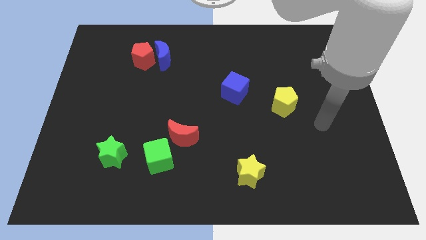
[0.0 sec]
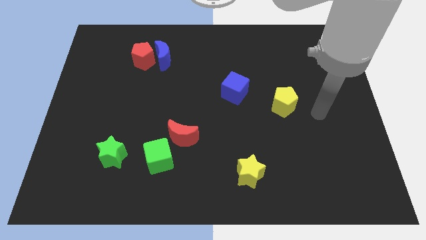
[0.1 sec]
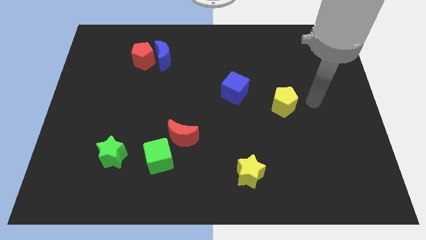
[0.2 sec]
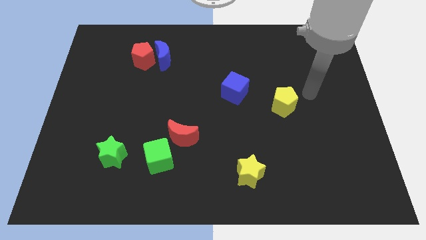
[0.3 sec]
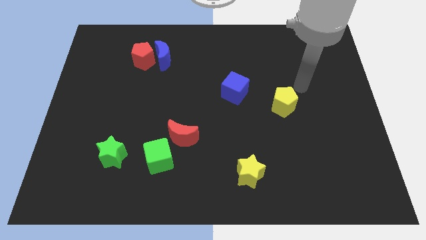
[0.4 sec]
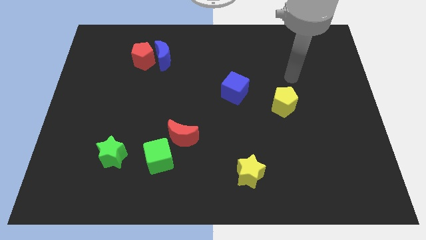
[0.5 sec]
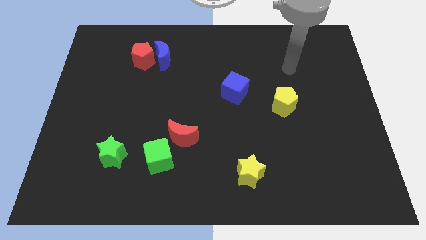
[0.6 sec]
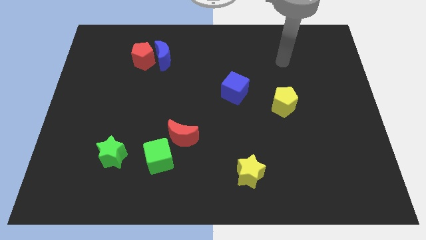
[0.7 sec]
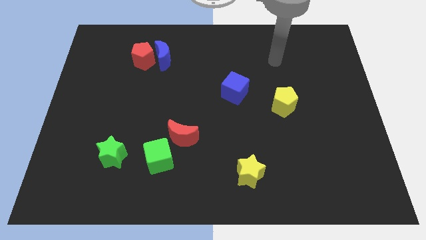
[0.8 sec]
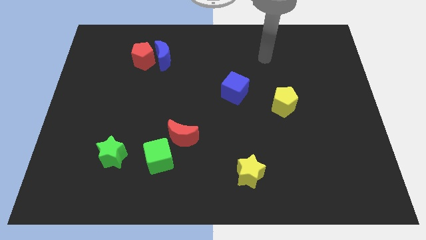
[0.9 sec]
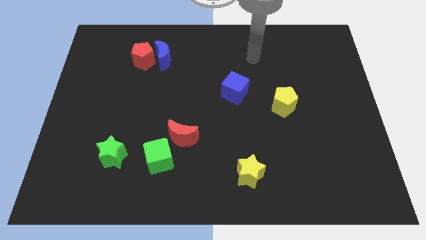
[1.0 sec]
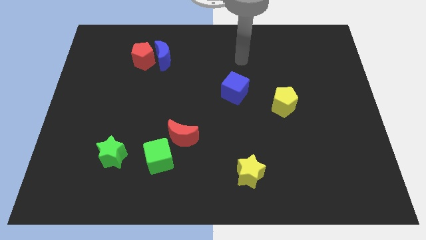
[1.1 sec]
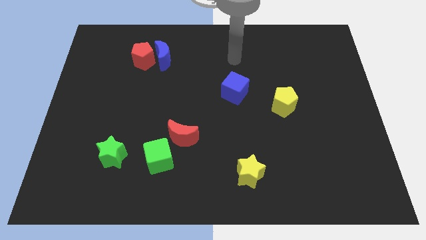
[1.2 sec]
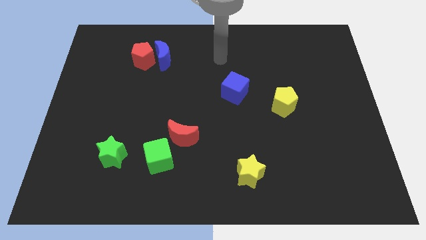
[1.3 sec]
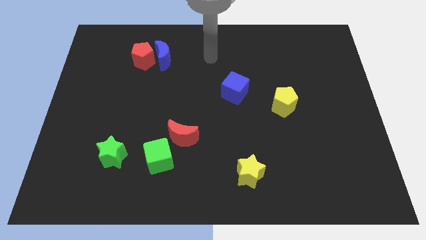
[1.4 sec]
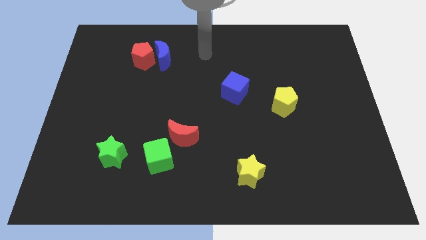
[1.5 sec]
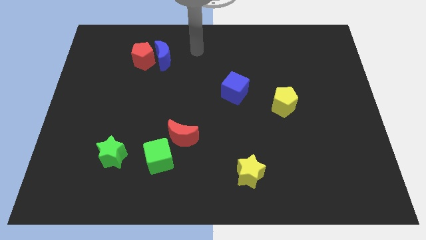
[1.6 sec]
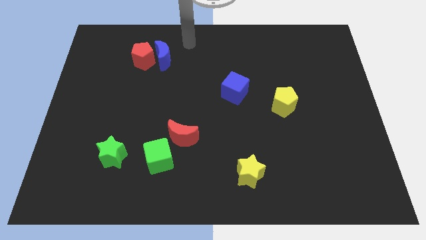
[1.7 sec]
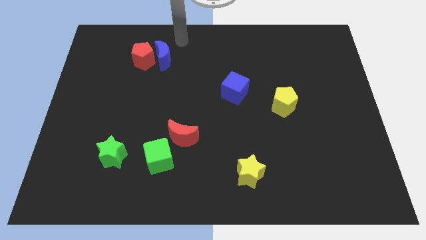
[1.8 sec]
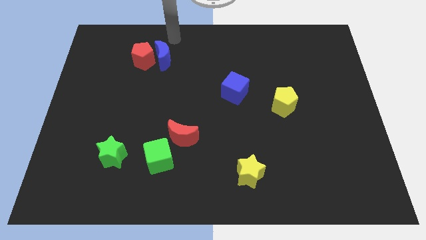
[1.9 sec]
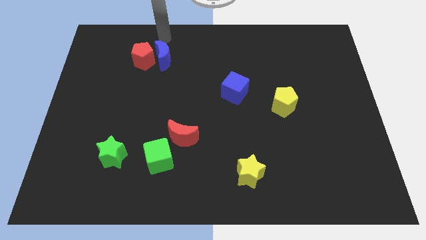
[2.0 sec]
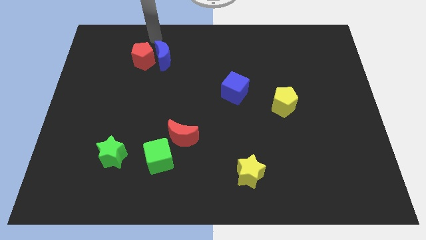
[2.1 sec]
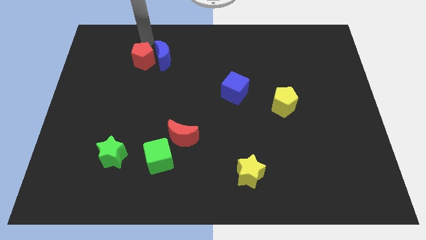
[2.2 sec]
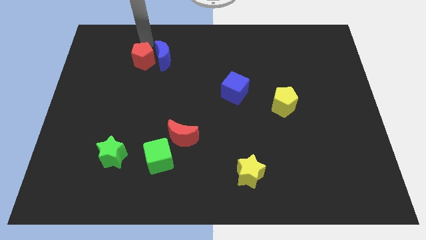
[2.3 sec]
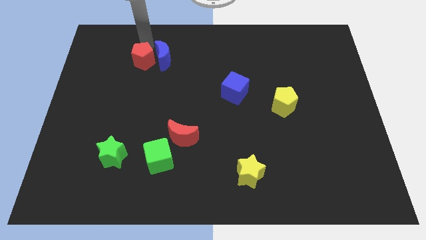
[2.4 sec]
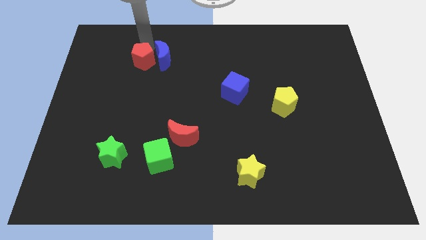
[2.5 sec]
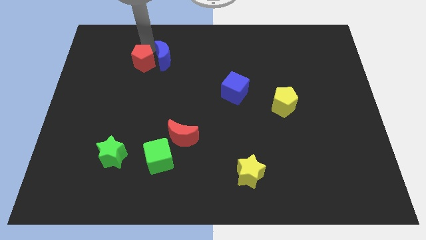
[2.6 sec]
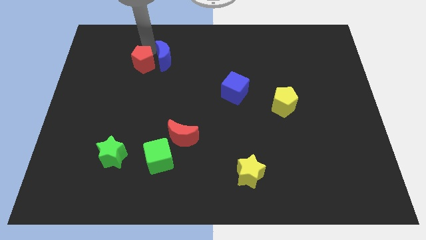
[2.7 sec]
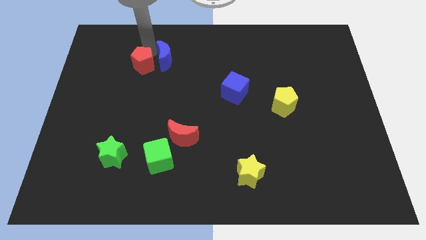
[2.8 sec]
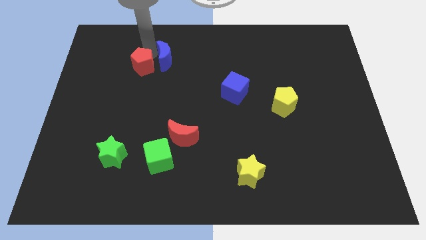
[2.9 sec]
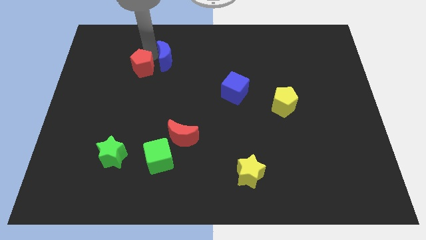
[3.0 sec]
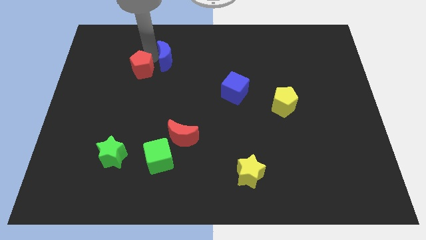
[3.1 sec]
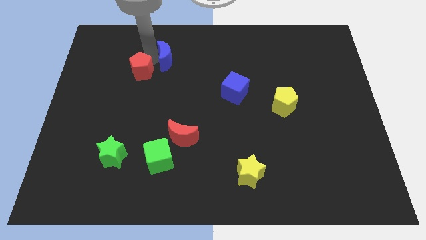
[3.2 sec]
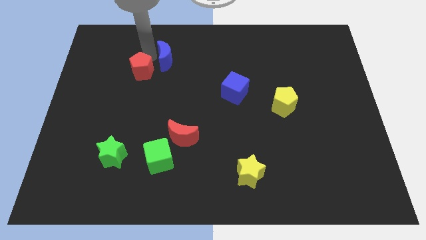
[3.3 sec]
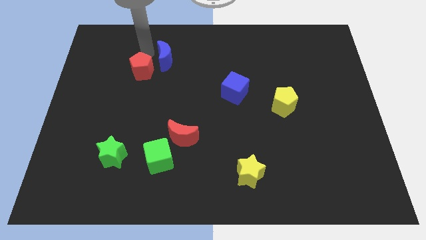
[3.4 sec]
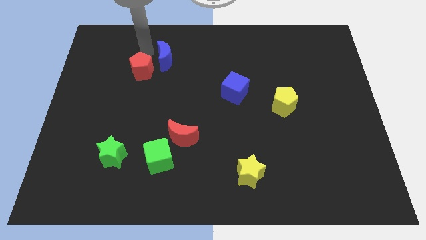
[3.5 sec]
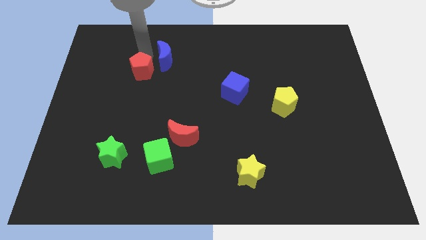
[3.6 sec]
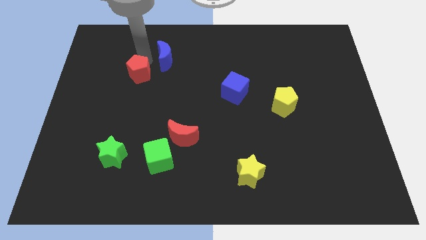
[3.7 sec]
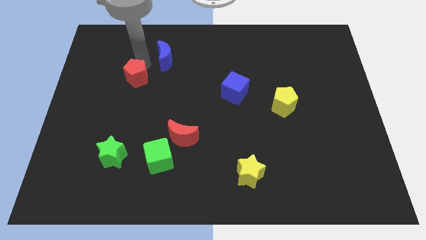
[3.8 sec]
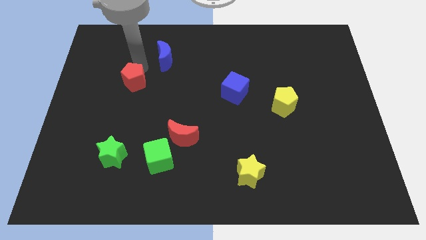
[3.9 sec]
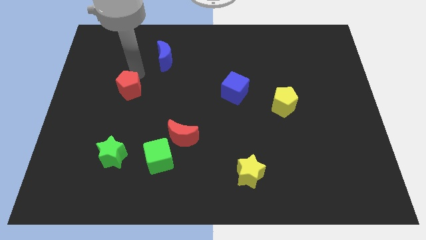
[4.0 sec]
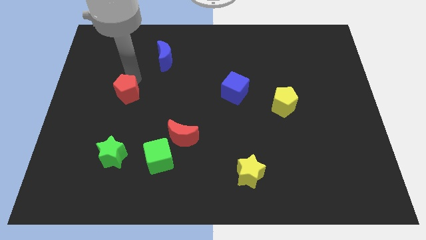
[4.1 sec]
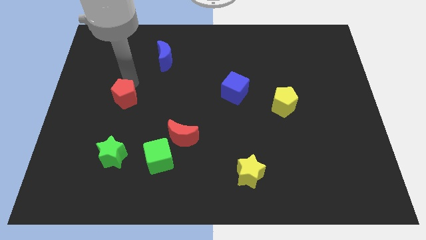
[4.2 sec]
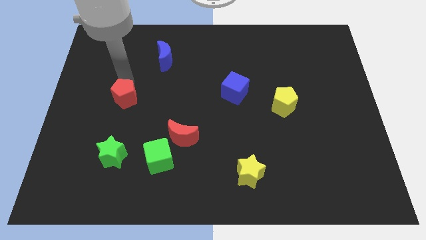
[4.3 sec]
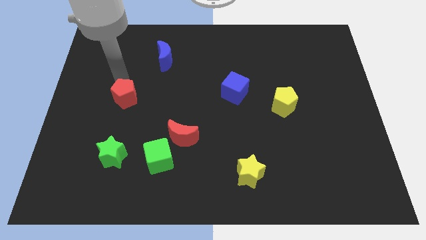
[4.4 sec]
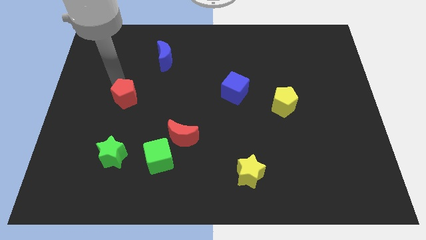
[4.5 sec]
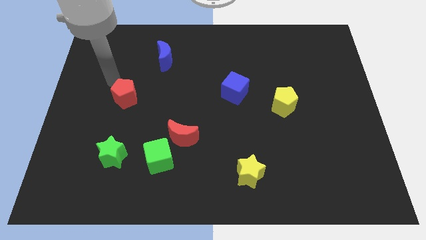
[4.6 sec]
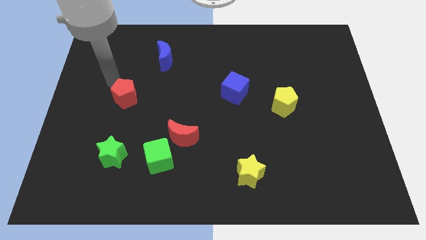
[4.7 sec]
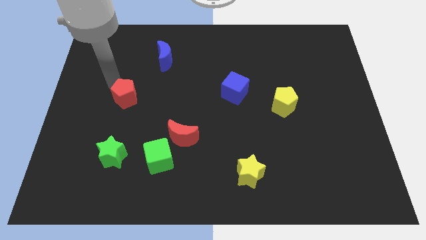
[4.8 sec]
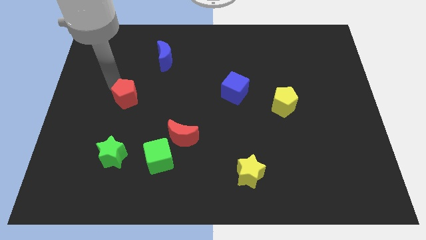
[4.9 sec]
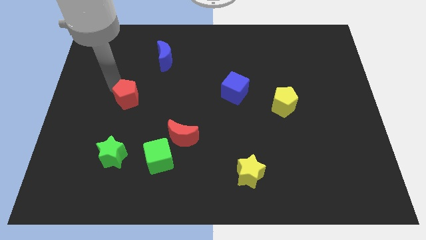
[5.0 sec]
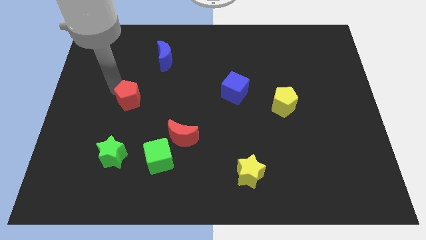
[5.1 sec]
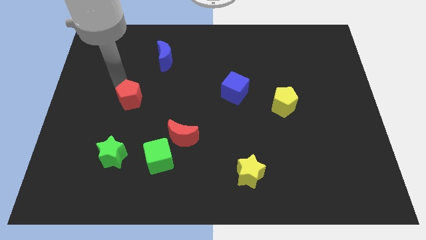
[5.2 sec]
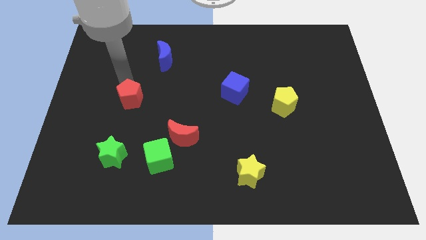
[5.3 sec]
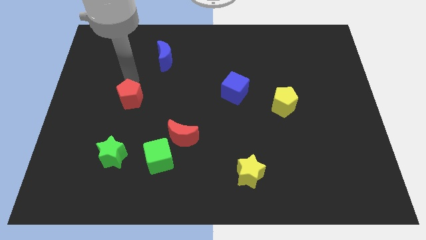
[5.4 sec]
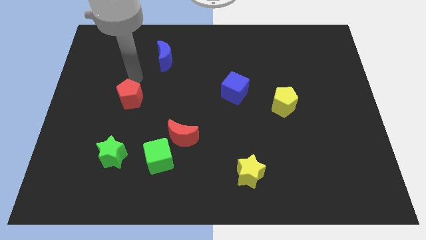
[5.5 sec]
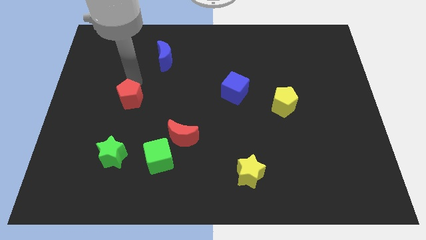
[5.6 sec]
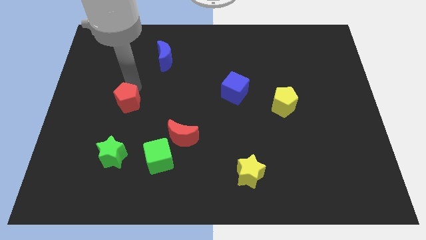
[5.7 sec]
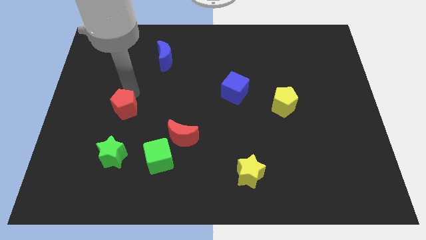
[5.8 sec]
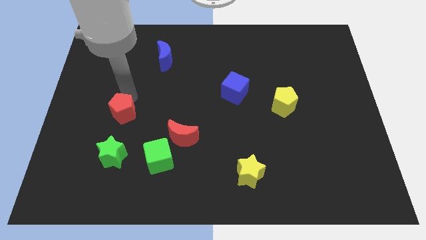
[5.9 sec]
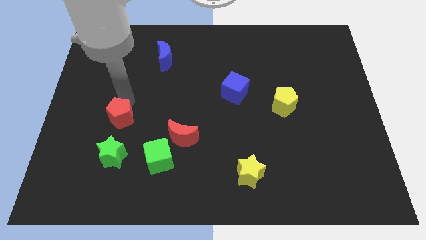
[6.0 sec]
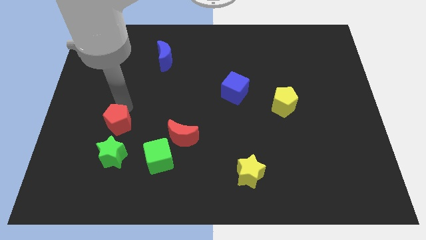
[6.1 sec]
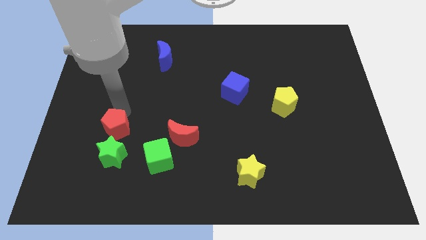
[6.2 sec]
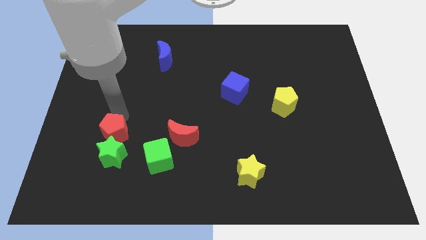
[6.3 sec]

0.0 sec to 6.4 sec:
move the red pentagon towards the green star

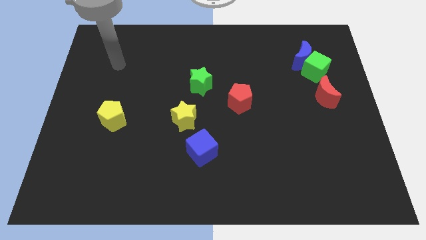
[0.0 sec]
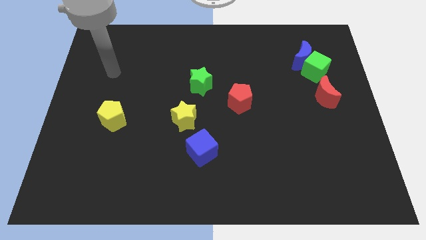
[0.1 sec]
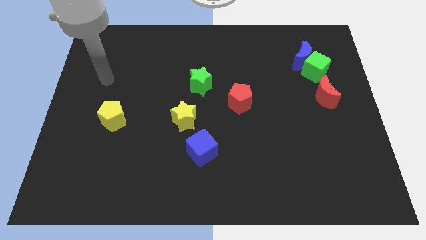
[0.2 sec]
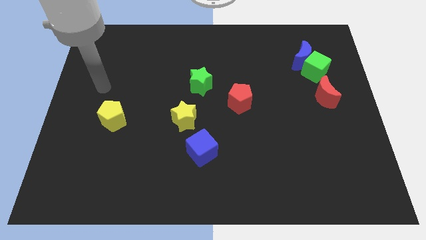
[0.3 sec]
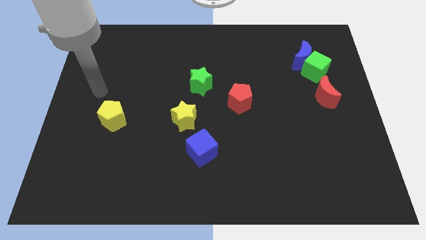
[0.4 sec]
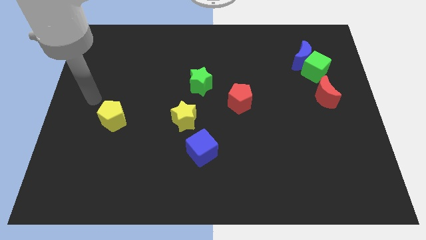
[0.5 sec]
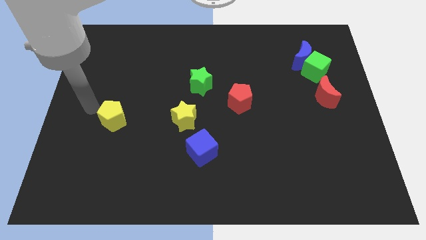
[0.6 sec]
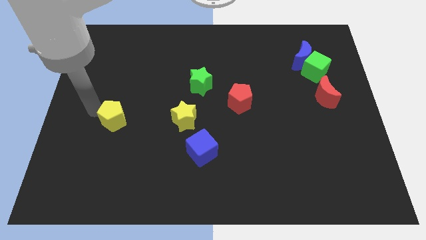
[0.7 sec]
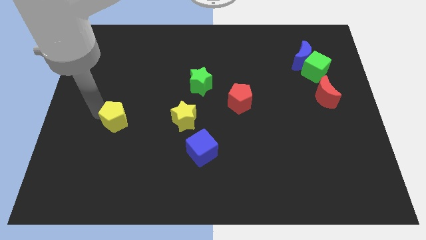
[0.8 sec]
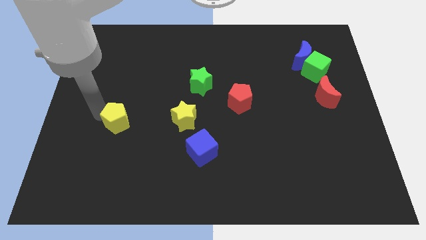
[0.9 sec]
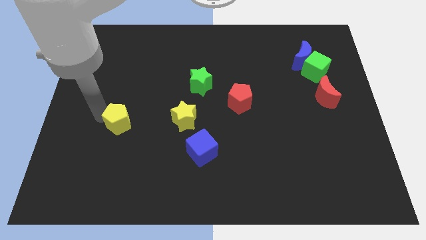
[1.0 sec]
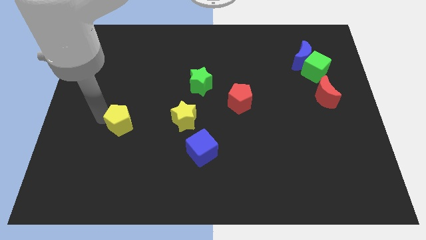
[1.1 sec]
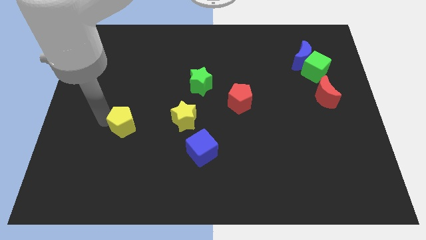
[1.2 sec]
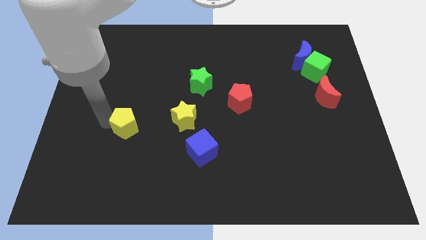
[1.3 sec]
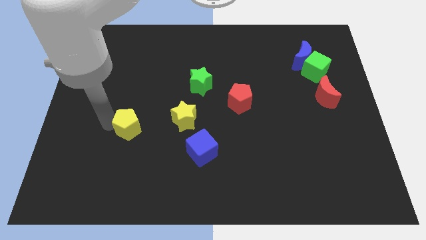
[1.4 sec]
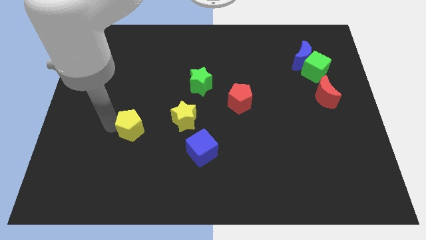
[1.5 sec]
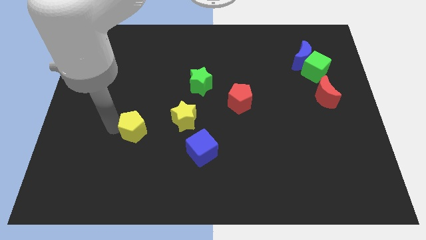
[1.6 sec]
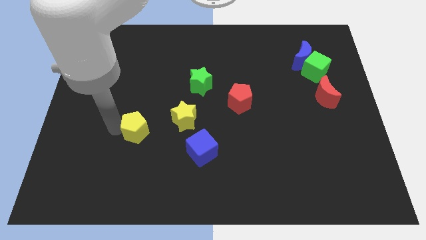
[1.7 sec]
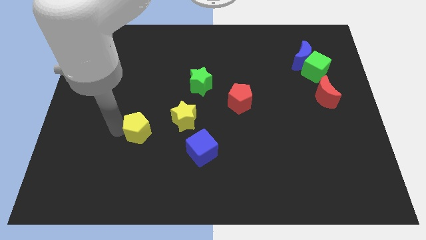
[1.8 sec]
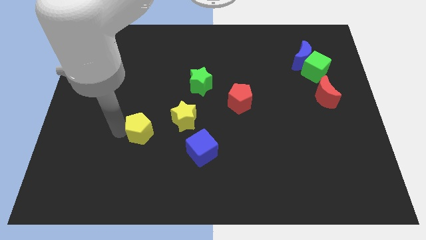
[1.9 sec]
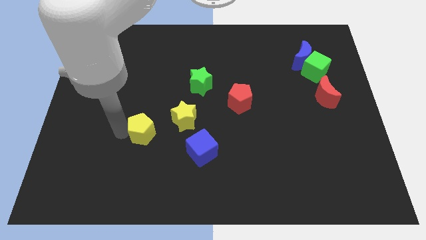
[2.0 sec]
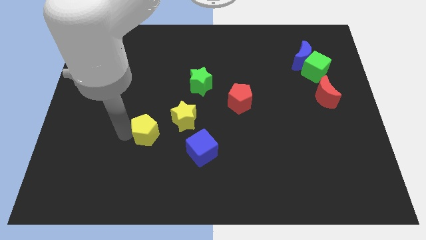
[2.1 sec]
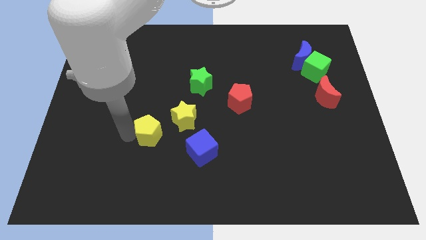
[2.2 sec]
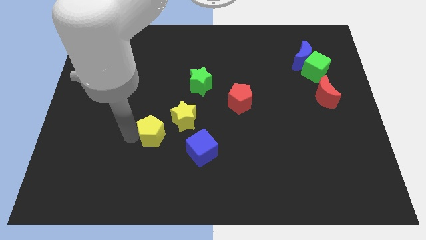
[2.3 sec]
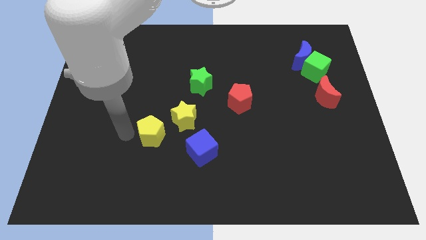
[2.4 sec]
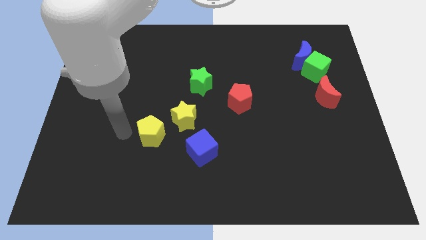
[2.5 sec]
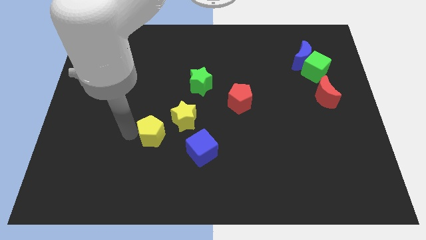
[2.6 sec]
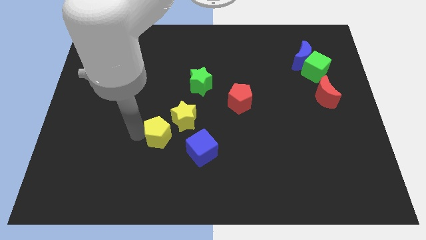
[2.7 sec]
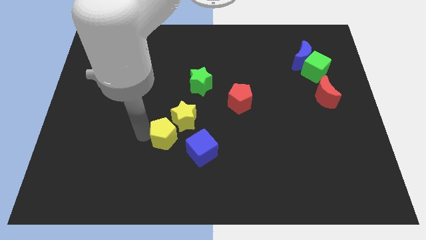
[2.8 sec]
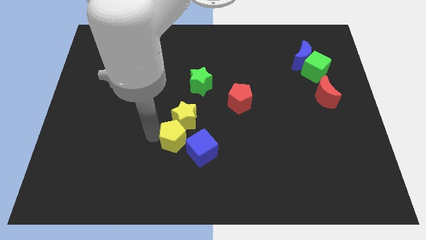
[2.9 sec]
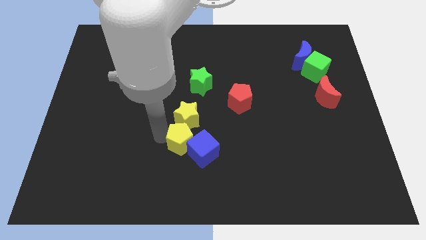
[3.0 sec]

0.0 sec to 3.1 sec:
push the yellow pentagon close to the blue cube
